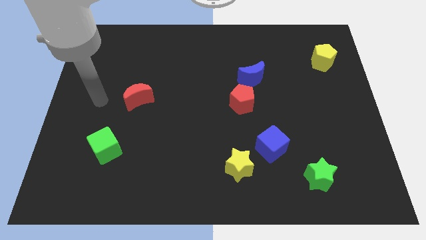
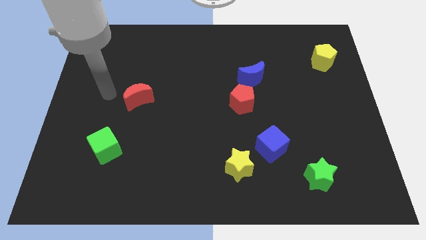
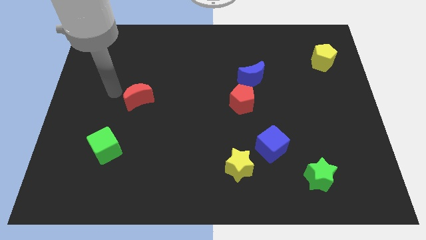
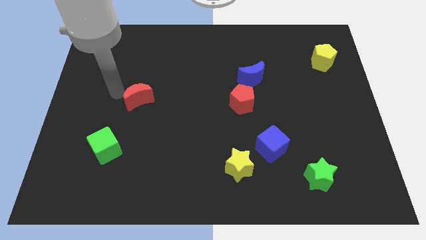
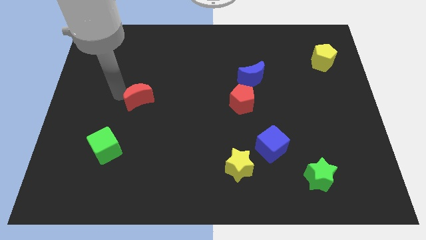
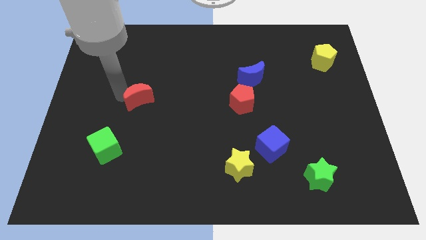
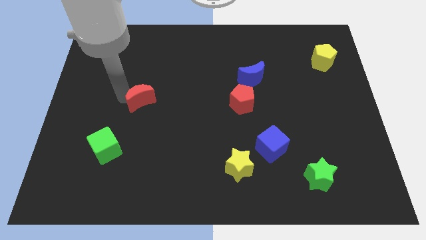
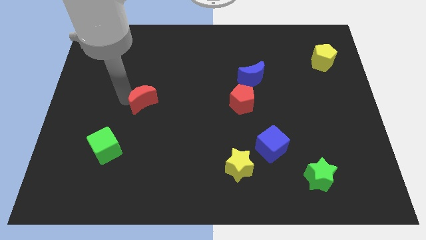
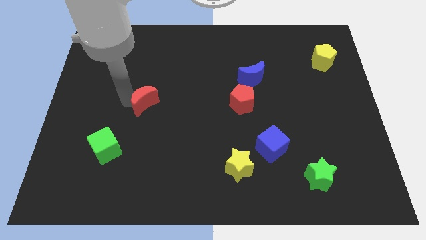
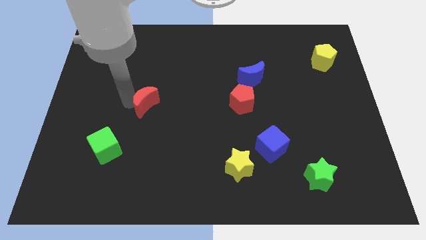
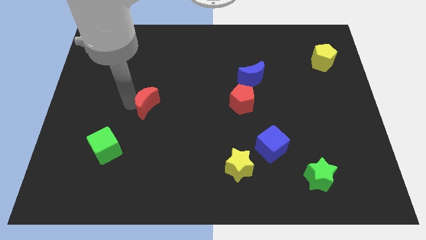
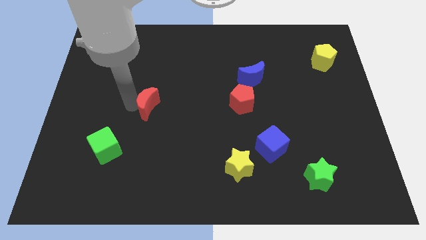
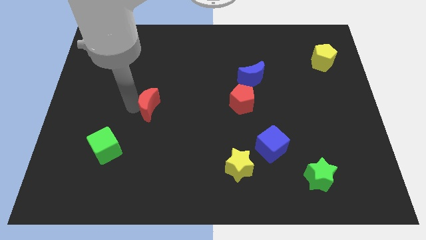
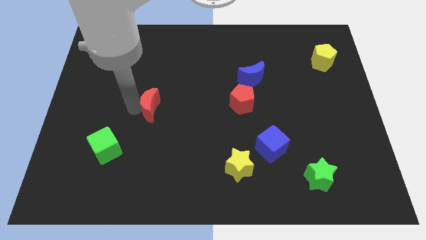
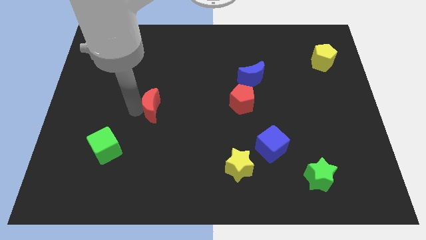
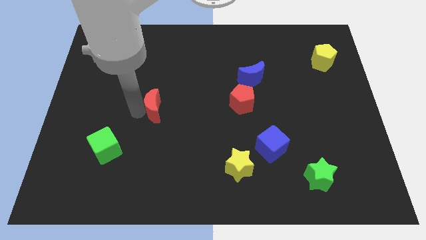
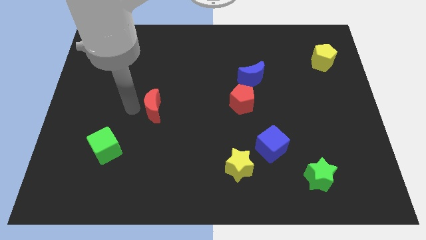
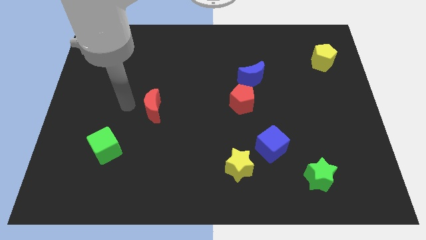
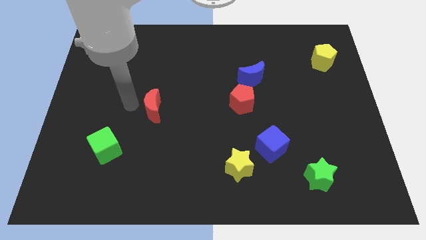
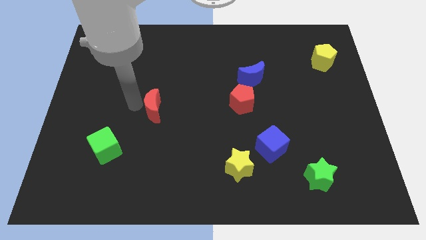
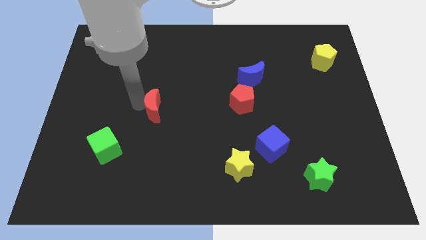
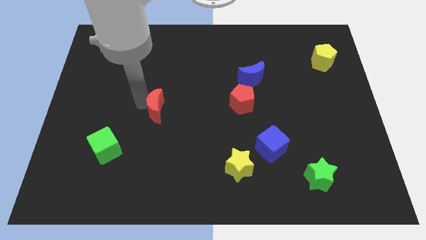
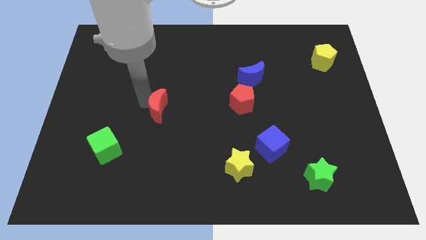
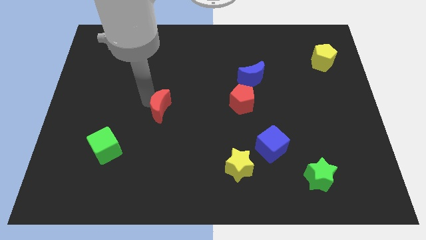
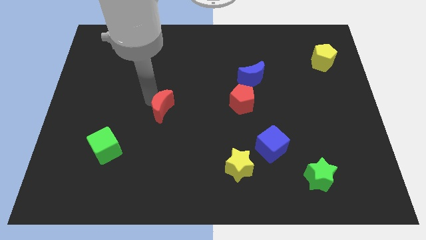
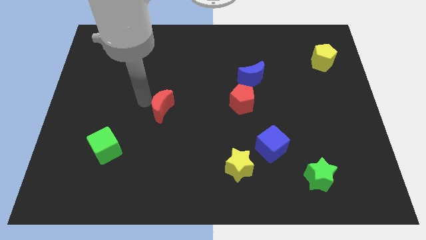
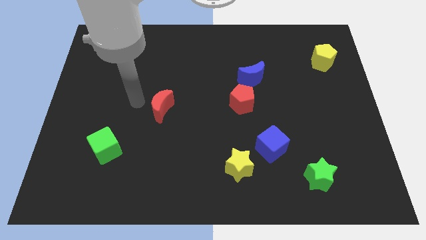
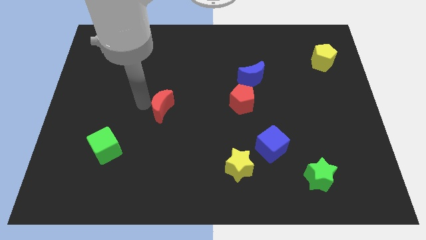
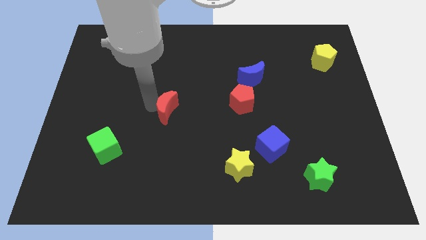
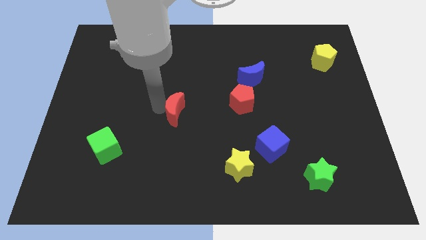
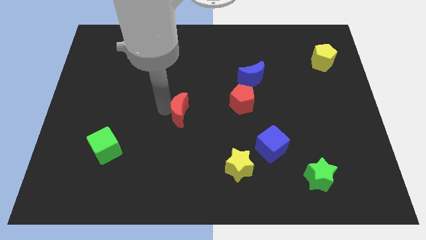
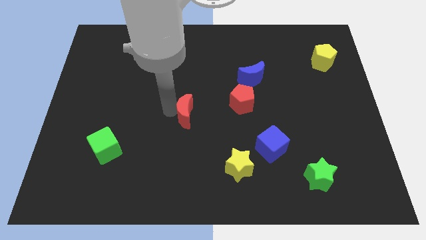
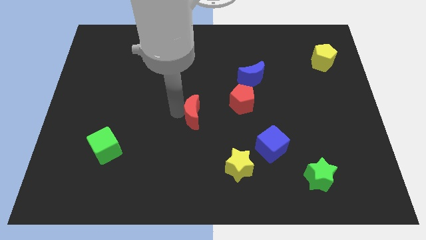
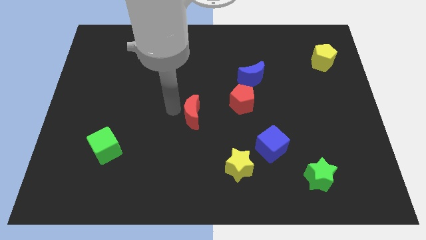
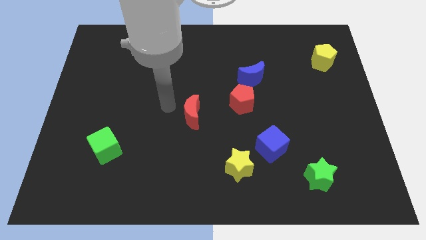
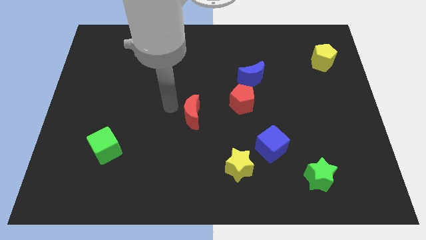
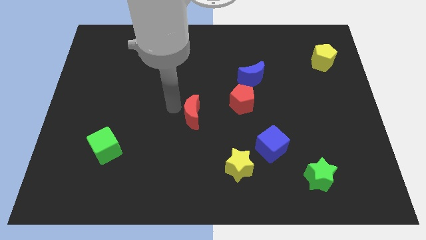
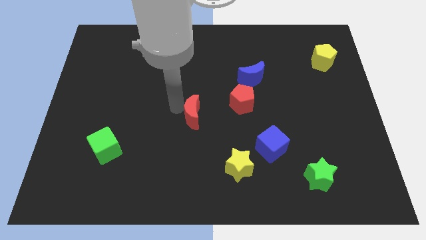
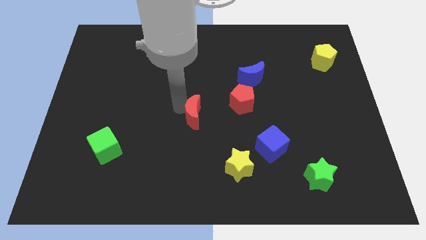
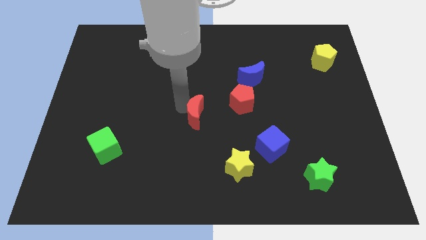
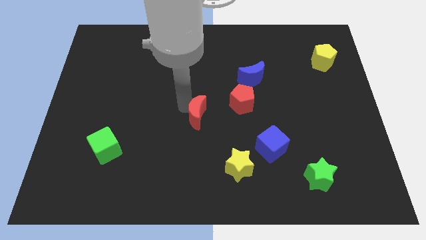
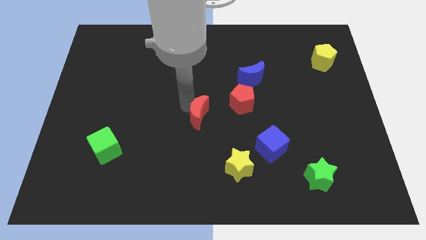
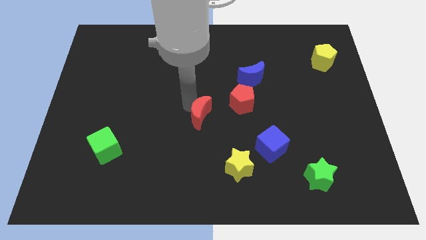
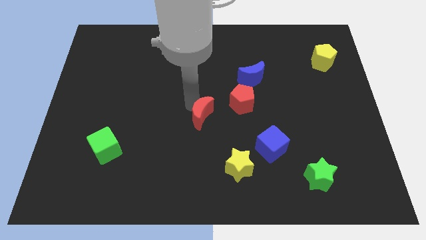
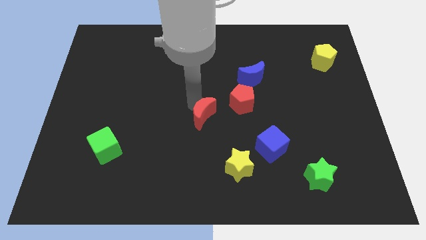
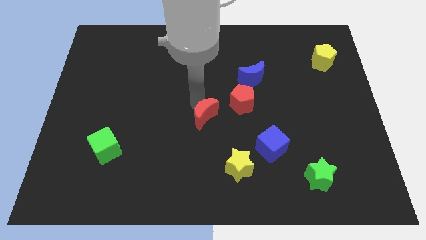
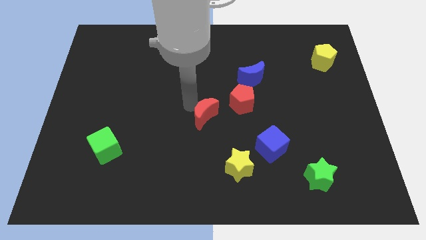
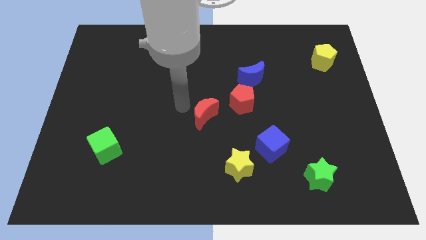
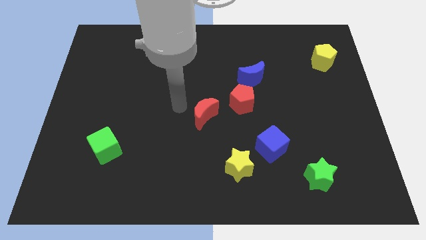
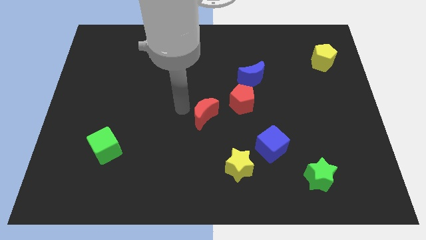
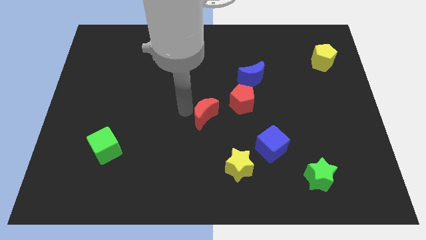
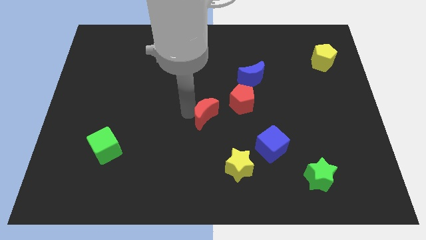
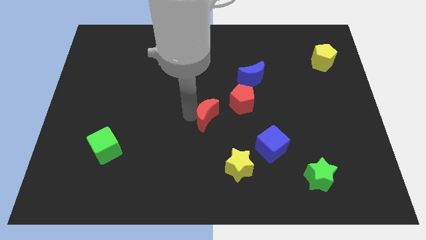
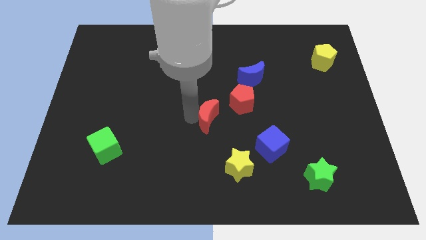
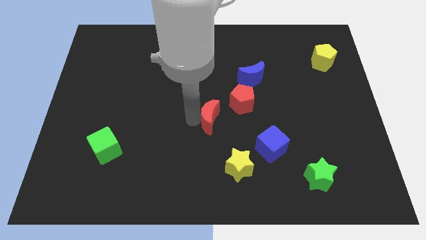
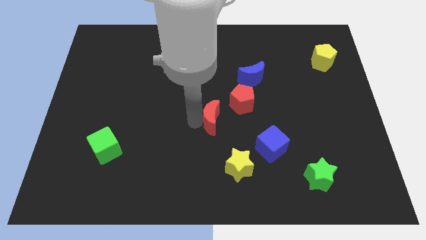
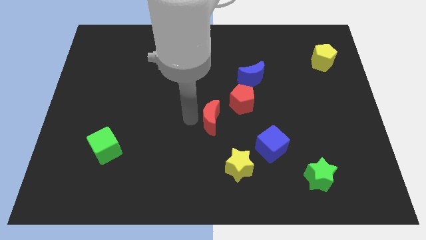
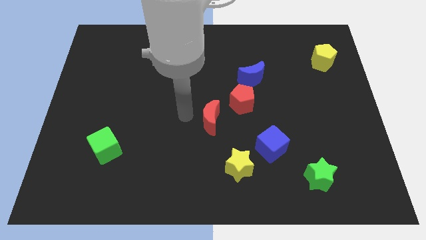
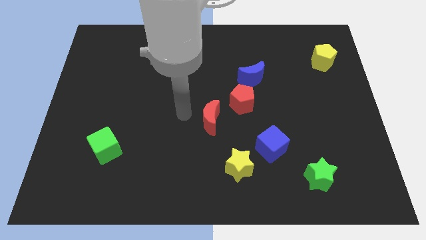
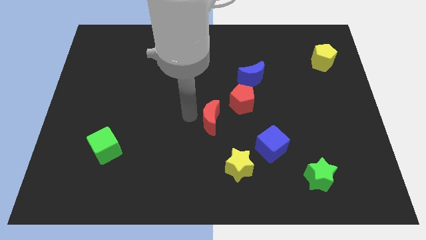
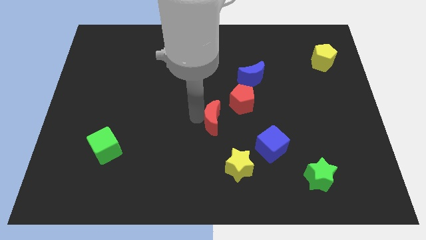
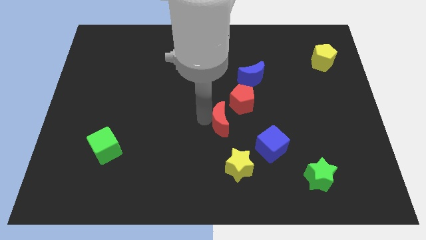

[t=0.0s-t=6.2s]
put the red moon above the yellow star
